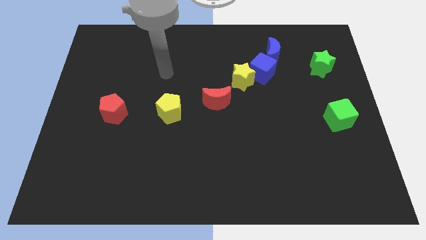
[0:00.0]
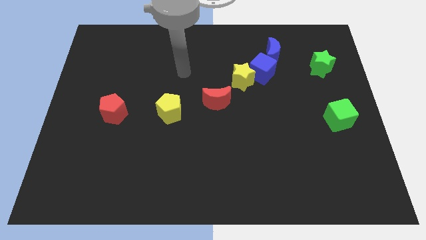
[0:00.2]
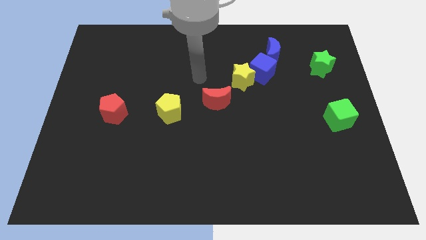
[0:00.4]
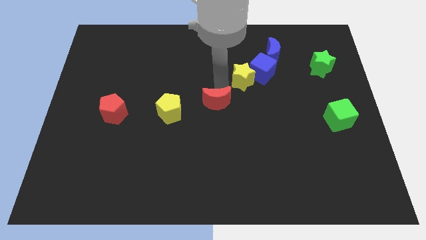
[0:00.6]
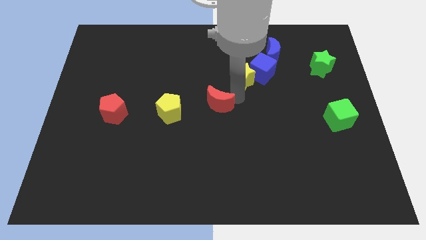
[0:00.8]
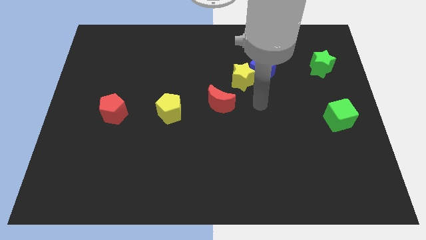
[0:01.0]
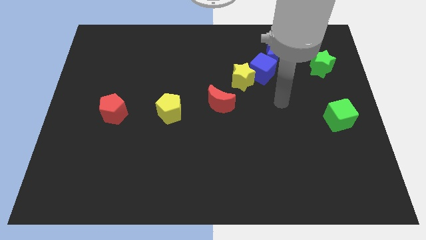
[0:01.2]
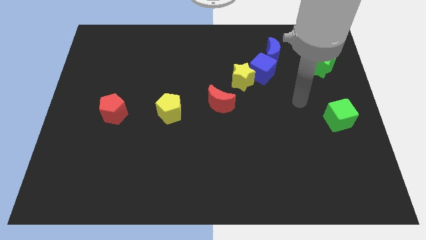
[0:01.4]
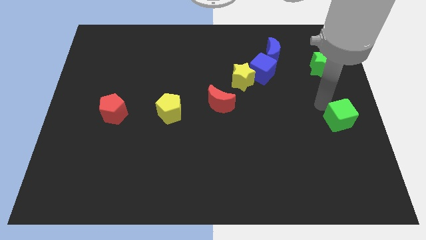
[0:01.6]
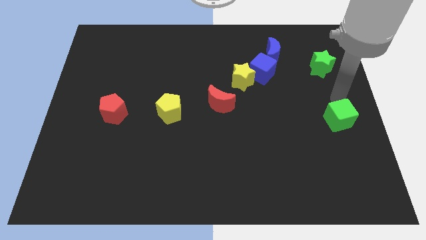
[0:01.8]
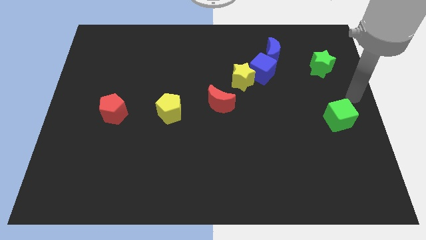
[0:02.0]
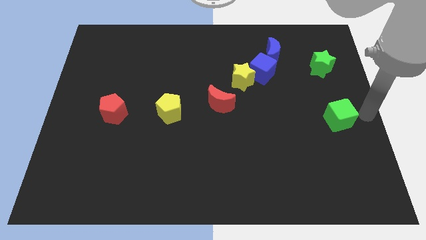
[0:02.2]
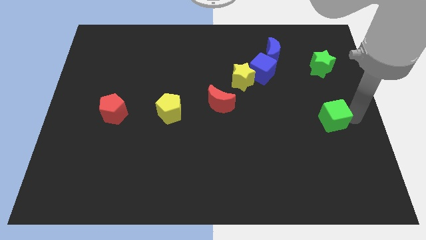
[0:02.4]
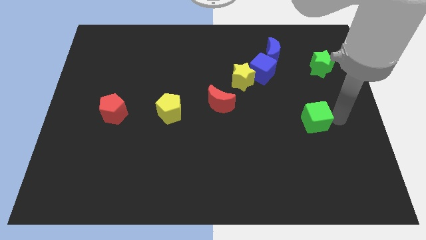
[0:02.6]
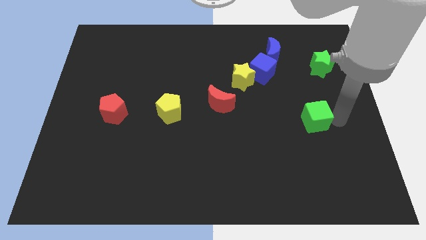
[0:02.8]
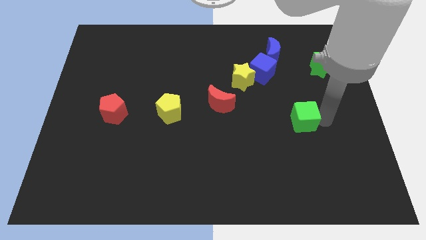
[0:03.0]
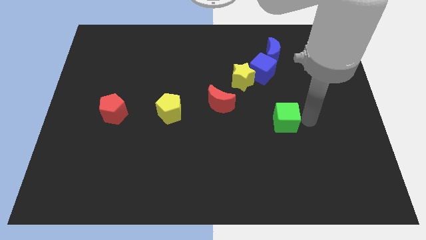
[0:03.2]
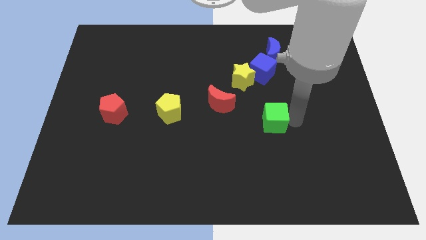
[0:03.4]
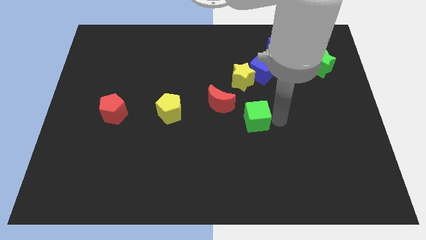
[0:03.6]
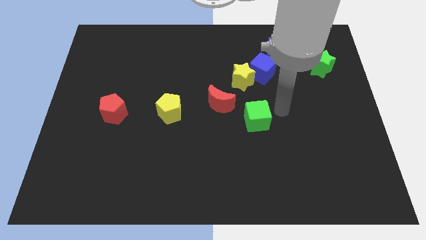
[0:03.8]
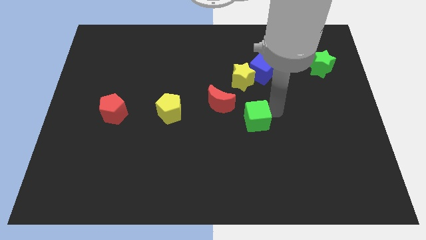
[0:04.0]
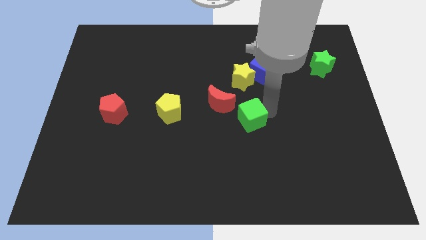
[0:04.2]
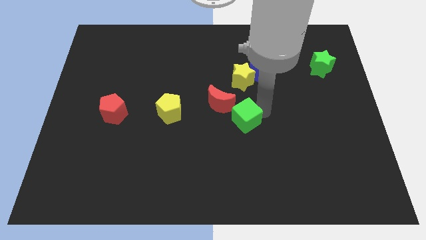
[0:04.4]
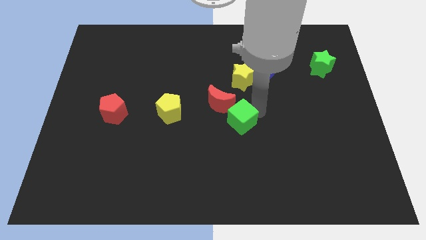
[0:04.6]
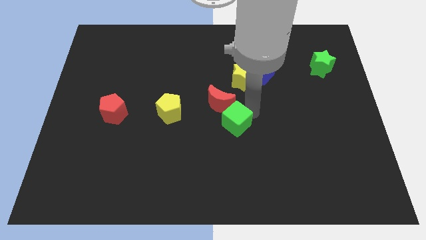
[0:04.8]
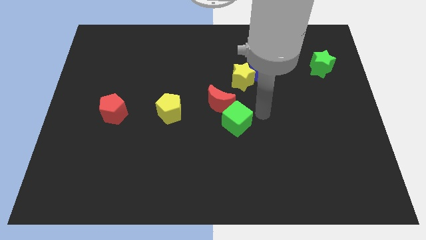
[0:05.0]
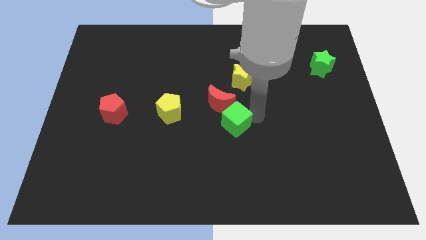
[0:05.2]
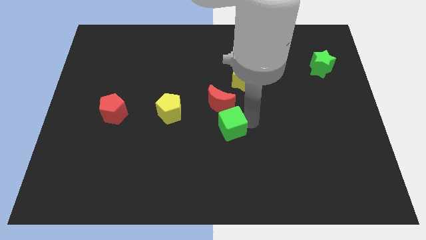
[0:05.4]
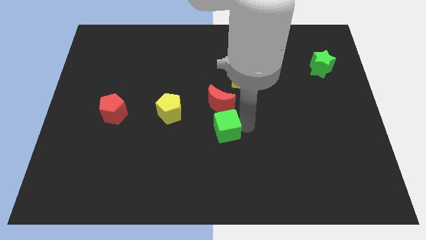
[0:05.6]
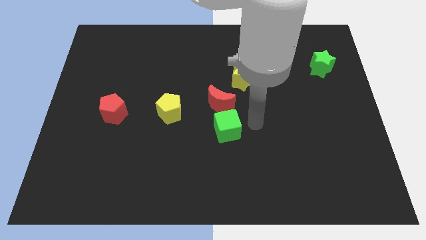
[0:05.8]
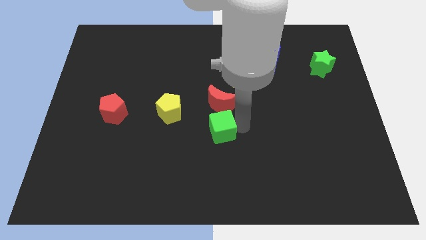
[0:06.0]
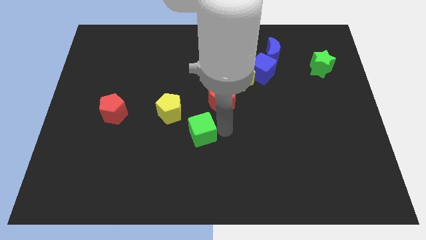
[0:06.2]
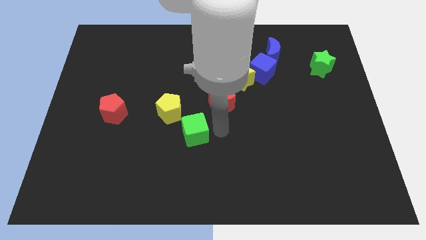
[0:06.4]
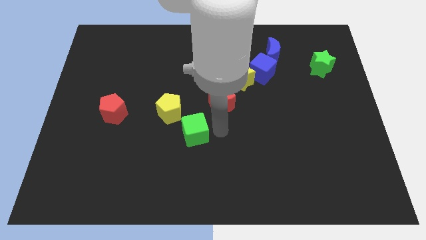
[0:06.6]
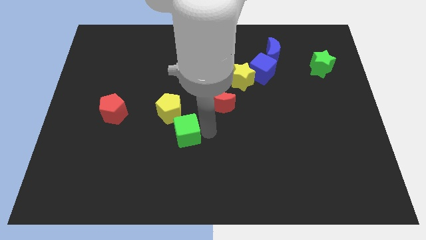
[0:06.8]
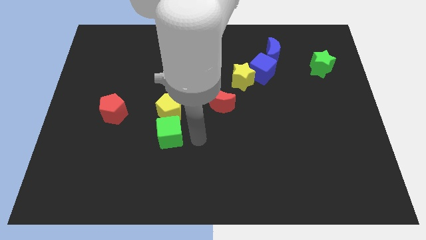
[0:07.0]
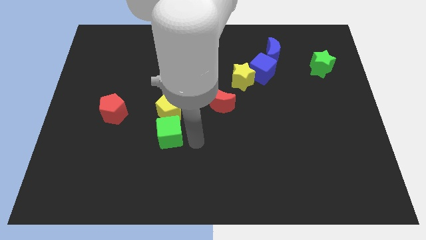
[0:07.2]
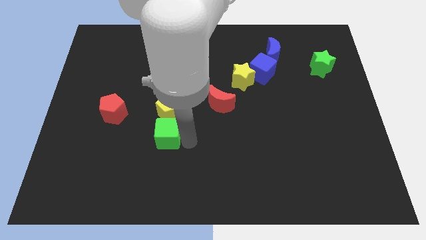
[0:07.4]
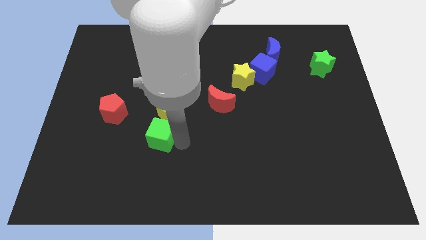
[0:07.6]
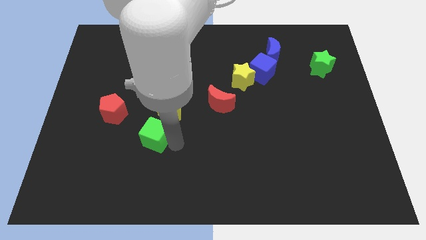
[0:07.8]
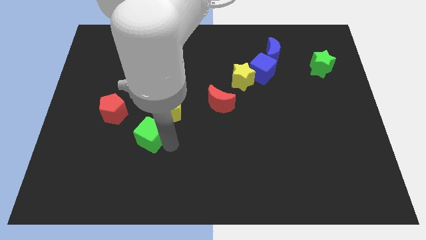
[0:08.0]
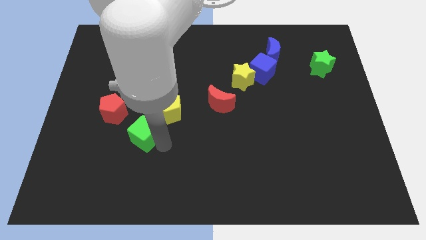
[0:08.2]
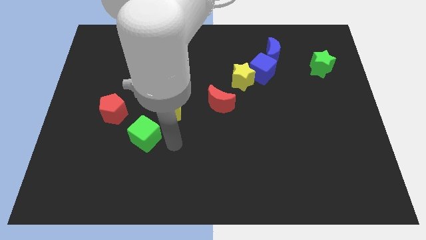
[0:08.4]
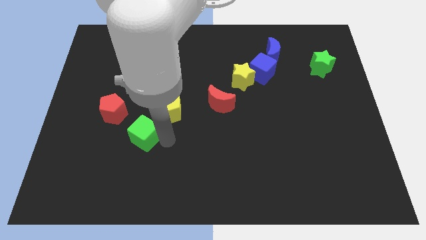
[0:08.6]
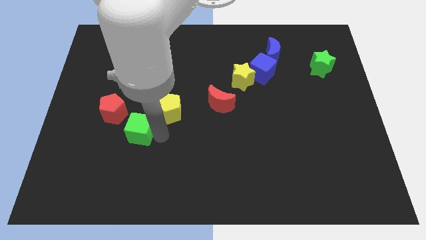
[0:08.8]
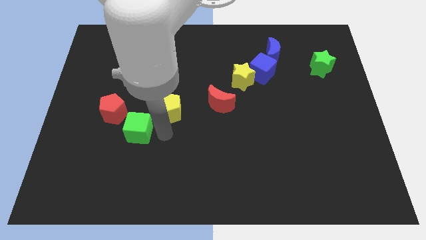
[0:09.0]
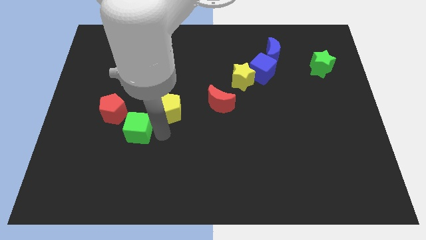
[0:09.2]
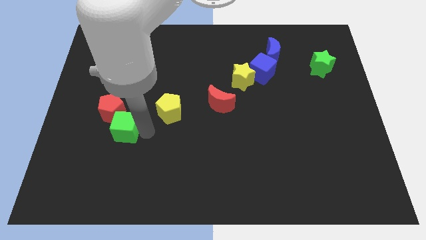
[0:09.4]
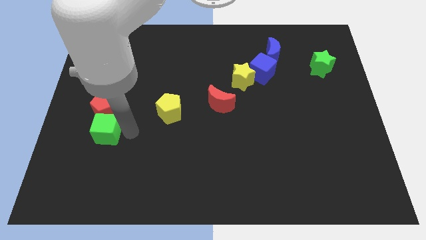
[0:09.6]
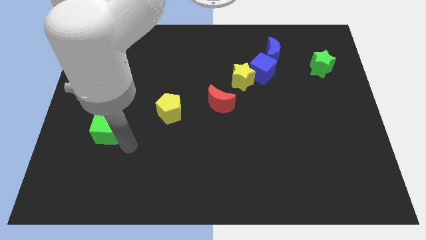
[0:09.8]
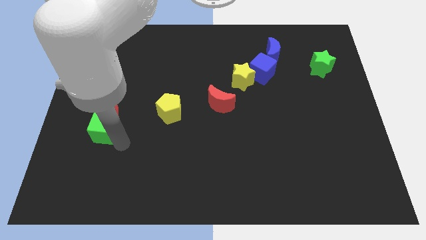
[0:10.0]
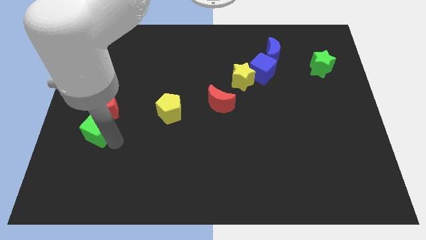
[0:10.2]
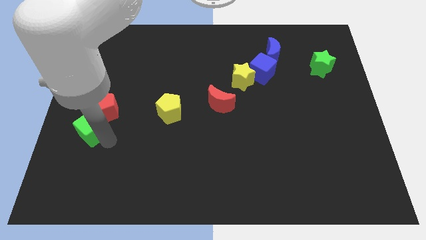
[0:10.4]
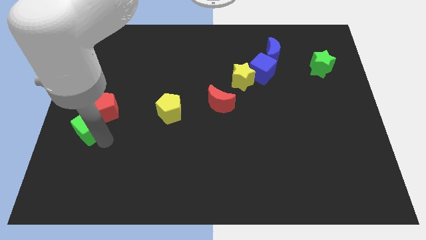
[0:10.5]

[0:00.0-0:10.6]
push the green cube to the center left
